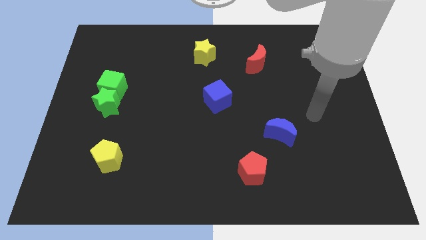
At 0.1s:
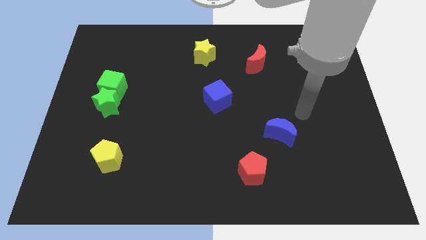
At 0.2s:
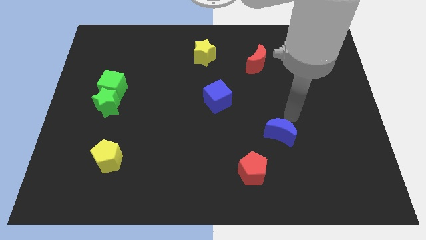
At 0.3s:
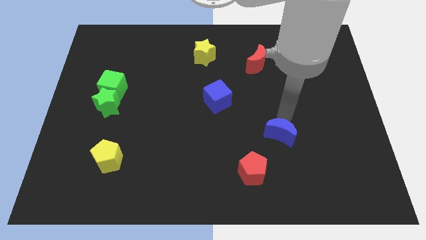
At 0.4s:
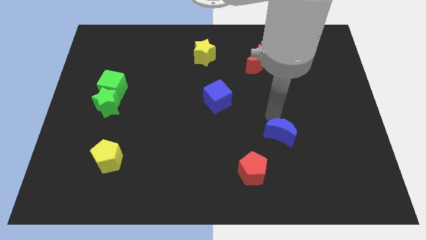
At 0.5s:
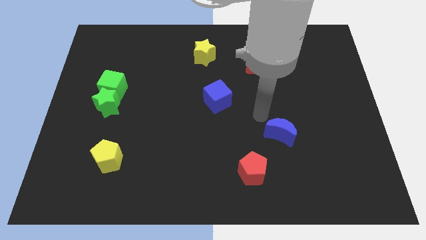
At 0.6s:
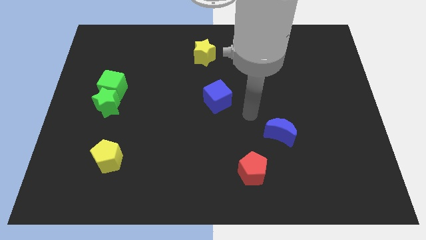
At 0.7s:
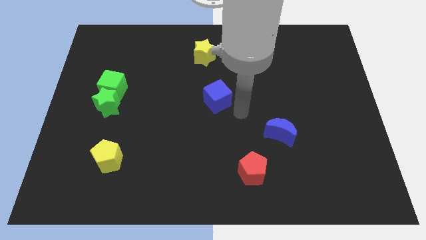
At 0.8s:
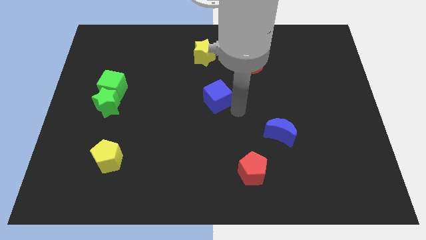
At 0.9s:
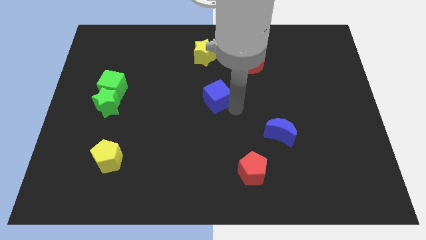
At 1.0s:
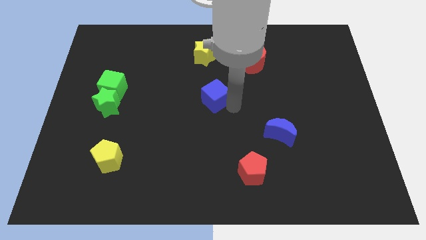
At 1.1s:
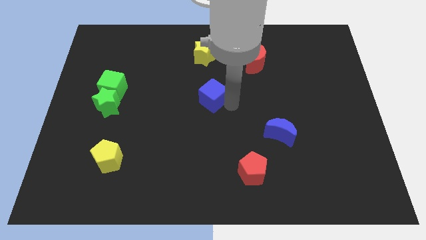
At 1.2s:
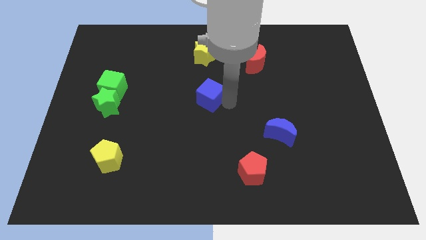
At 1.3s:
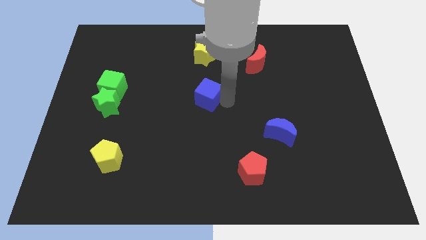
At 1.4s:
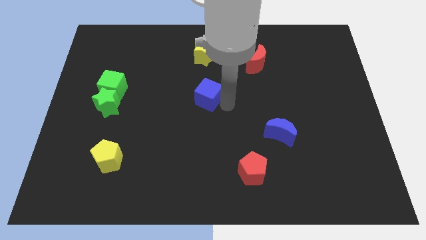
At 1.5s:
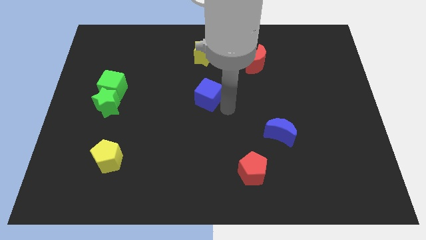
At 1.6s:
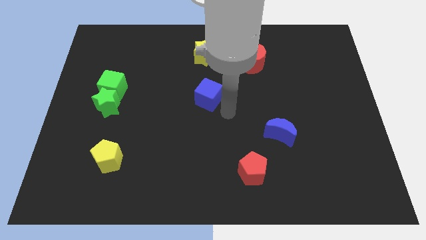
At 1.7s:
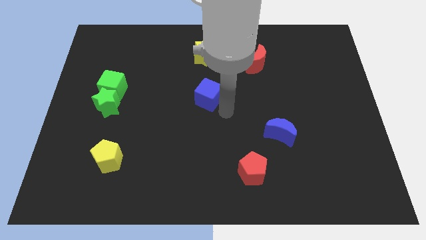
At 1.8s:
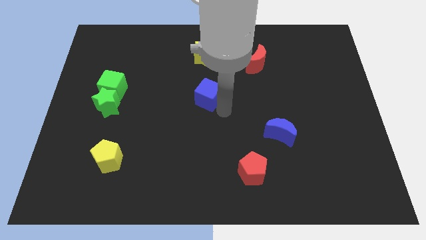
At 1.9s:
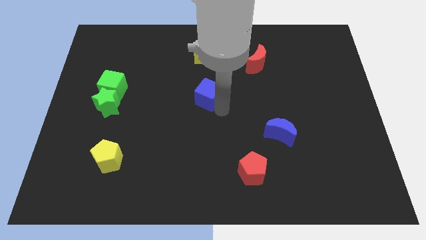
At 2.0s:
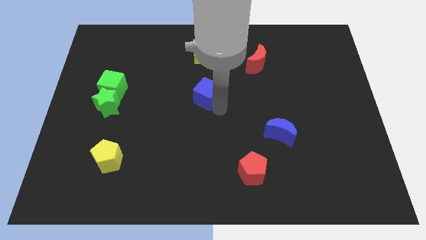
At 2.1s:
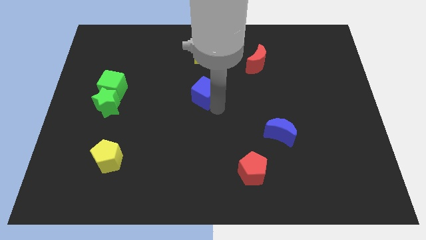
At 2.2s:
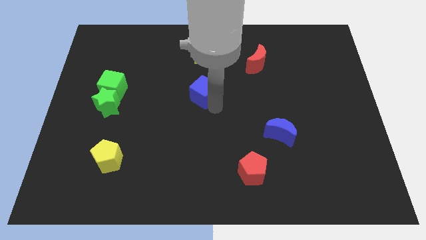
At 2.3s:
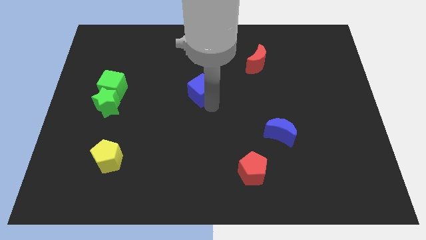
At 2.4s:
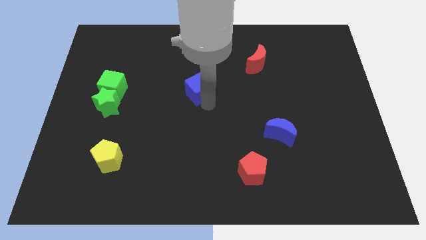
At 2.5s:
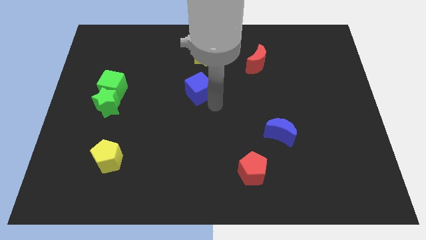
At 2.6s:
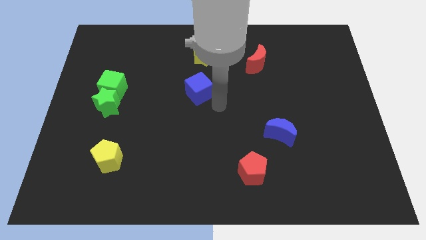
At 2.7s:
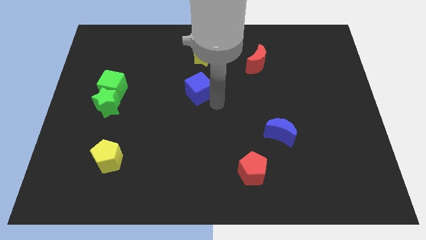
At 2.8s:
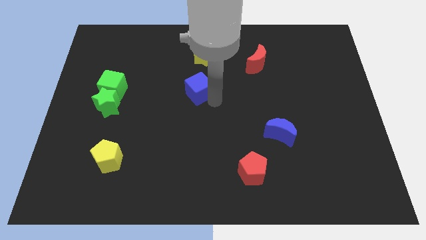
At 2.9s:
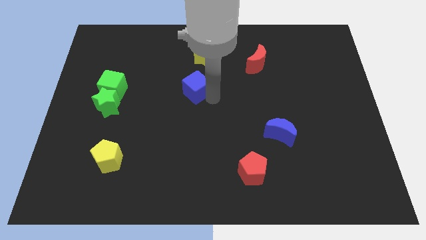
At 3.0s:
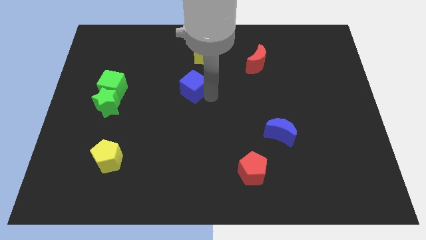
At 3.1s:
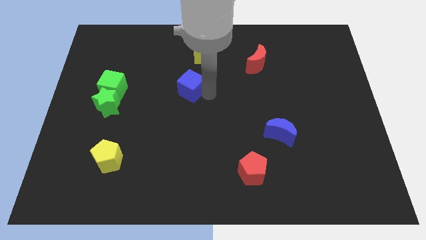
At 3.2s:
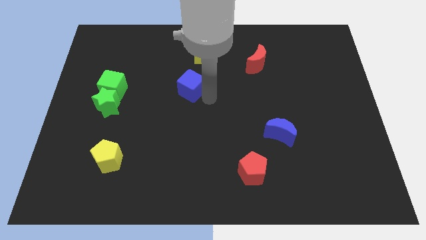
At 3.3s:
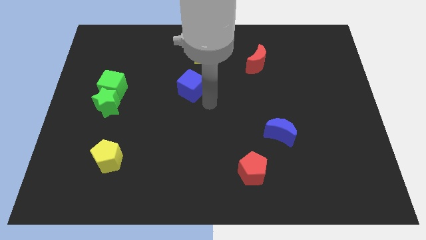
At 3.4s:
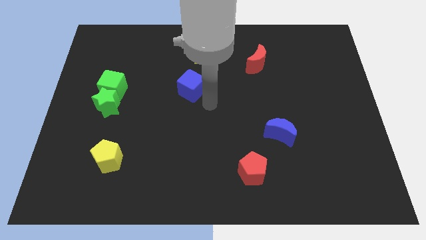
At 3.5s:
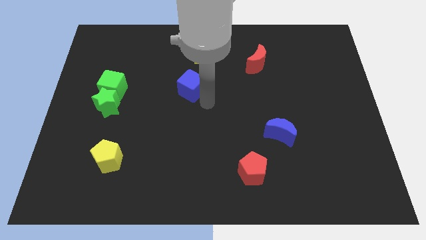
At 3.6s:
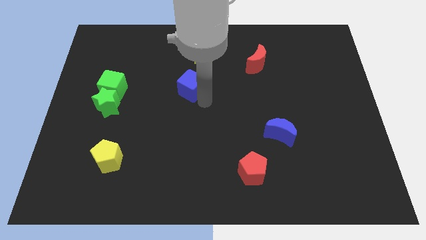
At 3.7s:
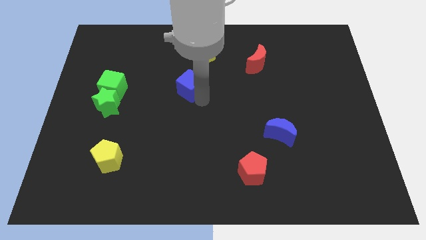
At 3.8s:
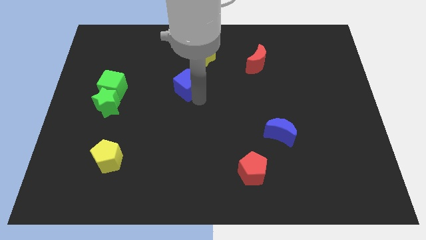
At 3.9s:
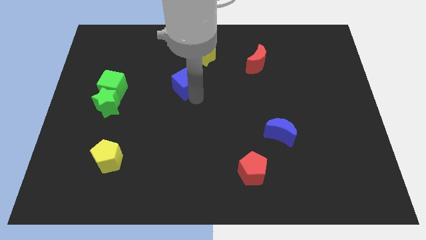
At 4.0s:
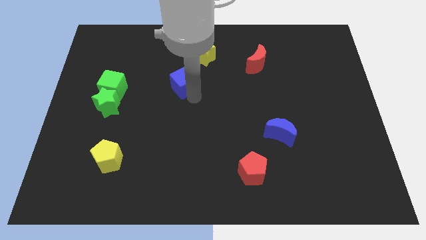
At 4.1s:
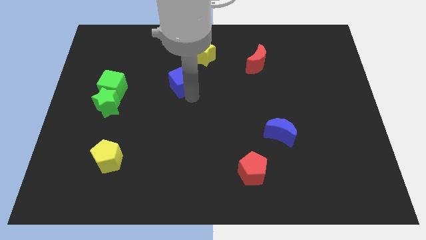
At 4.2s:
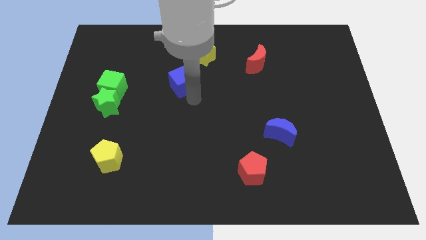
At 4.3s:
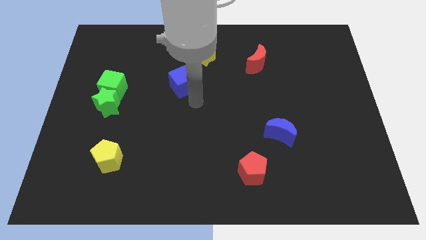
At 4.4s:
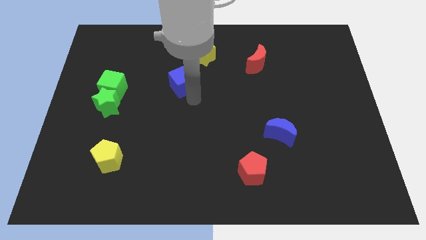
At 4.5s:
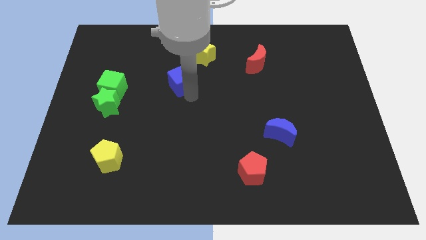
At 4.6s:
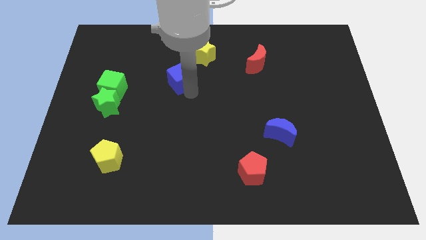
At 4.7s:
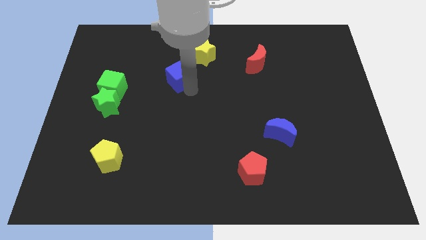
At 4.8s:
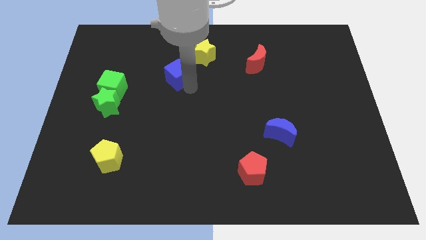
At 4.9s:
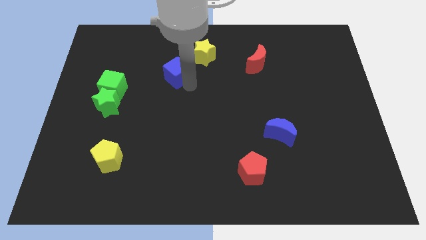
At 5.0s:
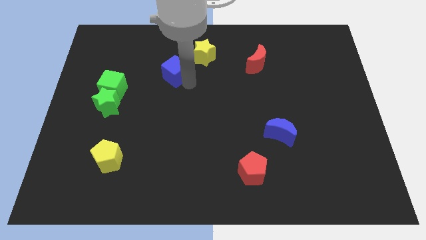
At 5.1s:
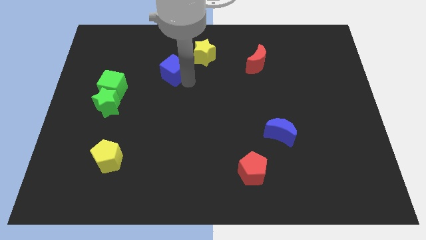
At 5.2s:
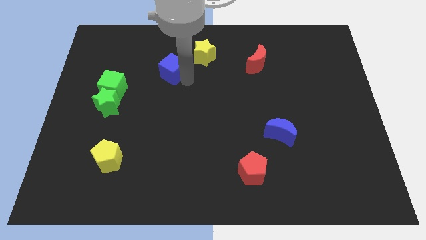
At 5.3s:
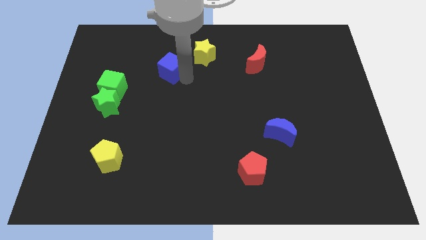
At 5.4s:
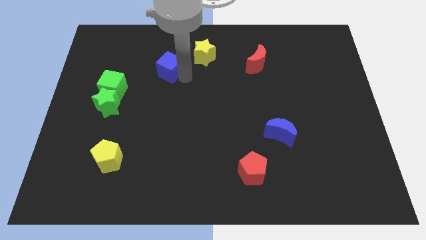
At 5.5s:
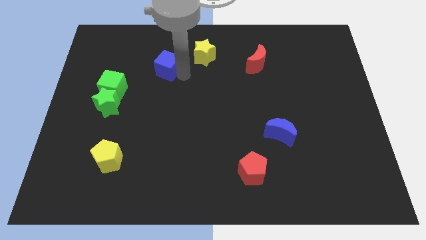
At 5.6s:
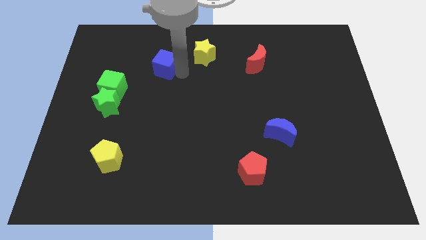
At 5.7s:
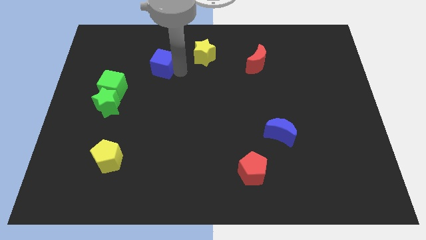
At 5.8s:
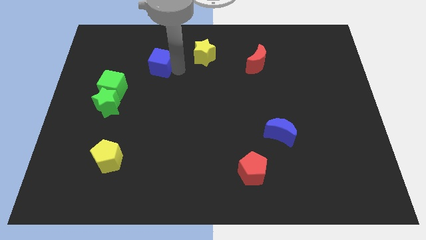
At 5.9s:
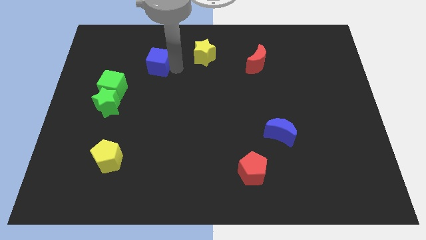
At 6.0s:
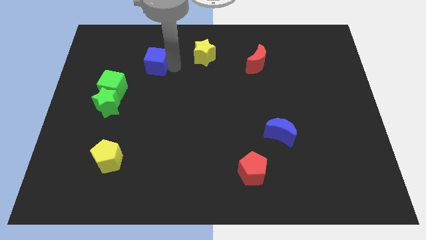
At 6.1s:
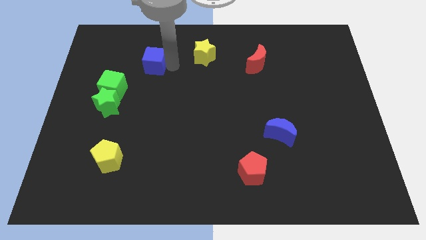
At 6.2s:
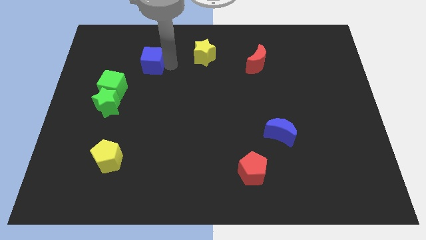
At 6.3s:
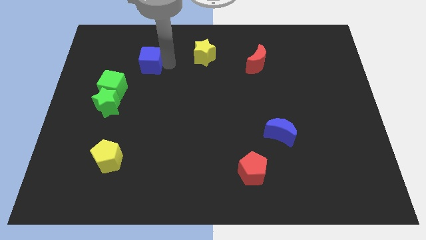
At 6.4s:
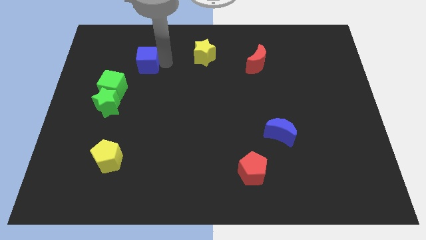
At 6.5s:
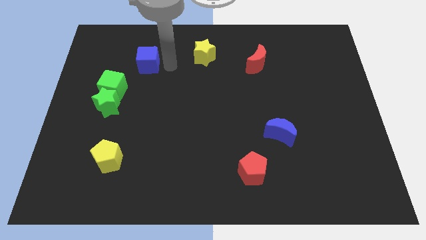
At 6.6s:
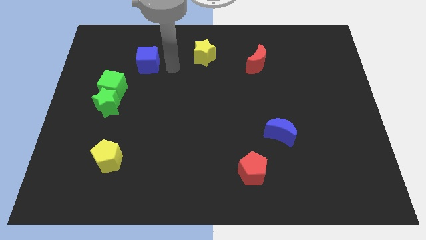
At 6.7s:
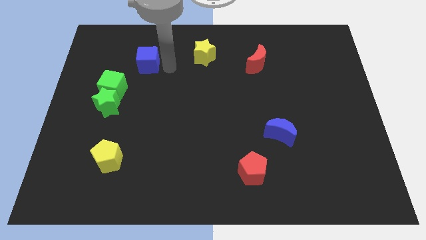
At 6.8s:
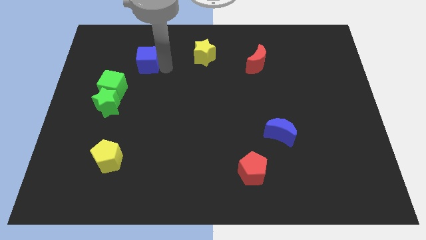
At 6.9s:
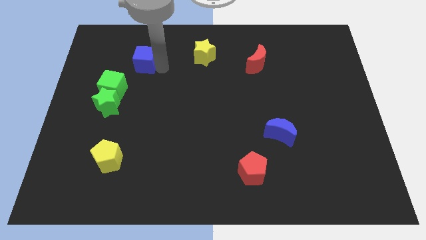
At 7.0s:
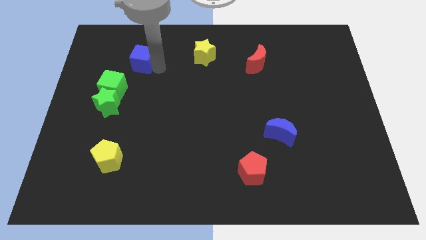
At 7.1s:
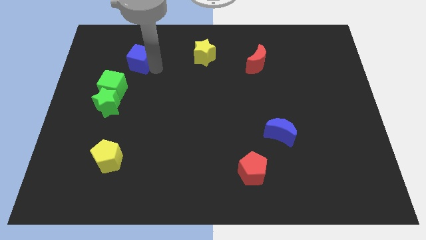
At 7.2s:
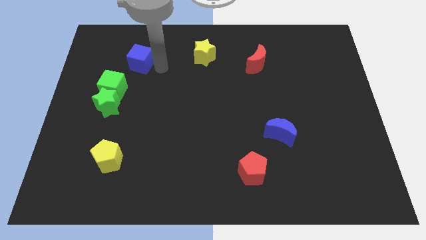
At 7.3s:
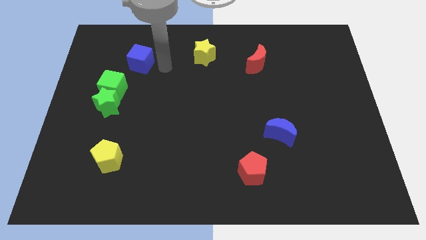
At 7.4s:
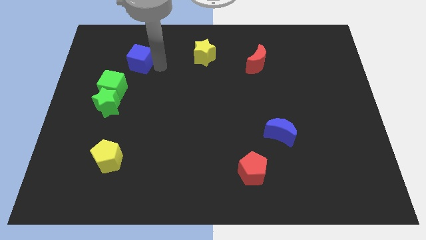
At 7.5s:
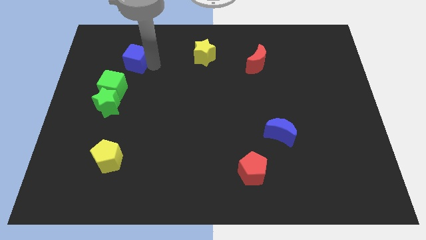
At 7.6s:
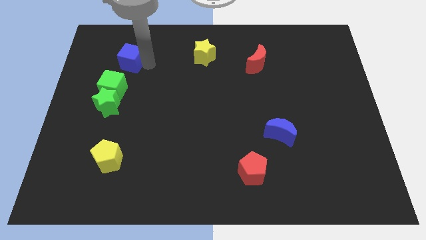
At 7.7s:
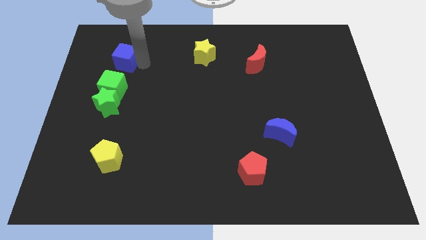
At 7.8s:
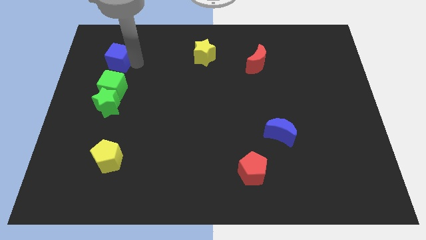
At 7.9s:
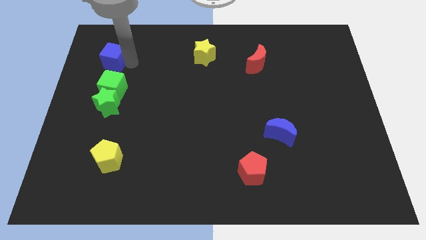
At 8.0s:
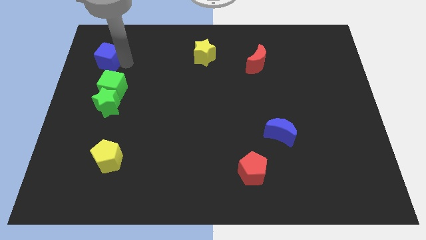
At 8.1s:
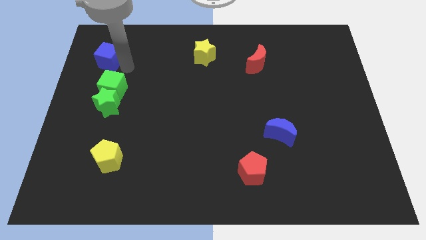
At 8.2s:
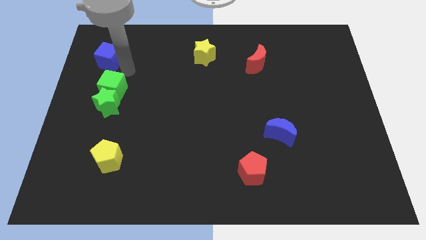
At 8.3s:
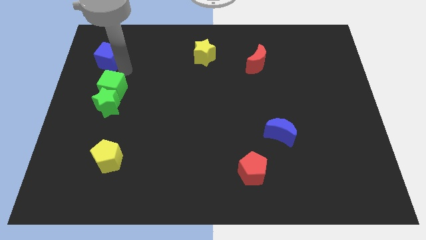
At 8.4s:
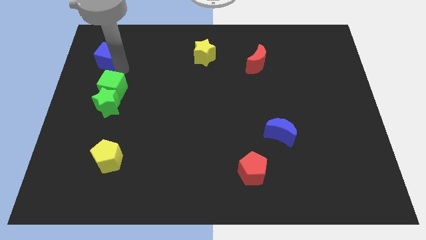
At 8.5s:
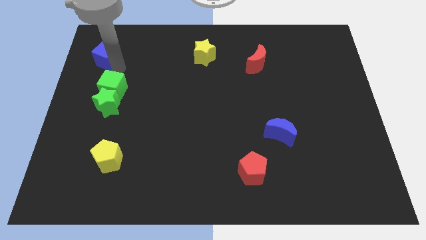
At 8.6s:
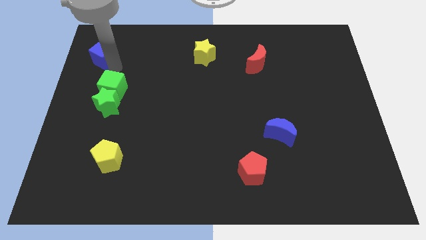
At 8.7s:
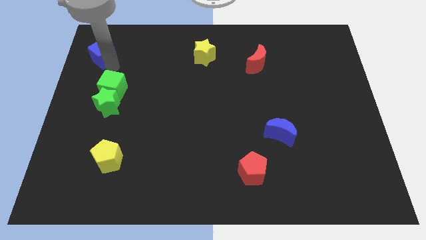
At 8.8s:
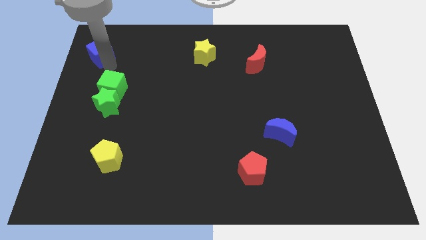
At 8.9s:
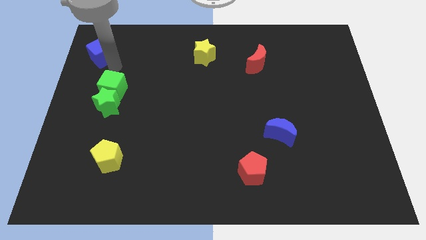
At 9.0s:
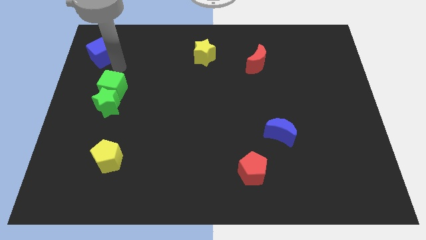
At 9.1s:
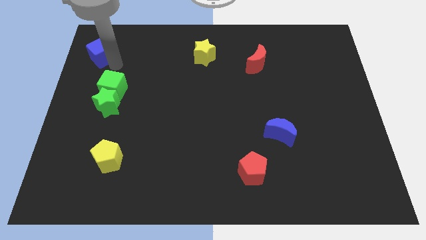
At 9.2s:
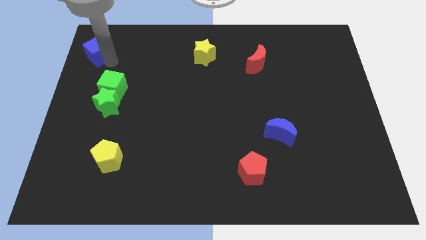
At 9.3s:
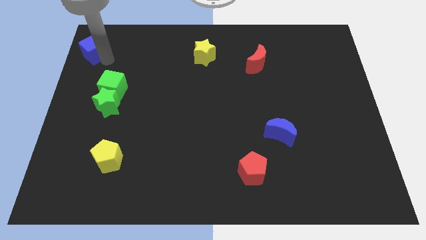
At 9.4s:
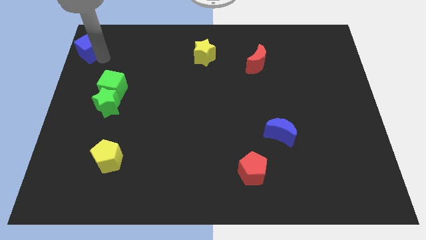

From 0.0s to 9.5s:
slide the blue cube to the upper left corner
